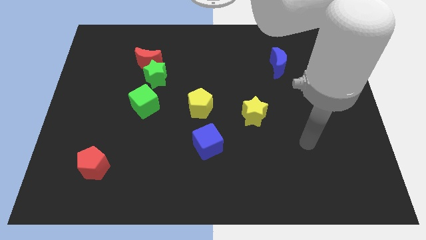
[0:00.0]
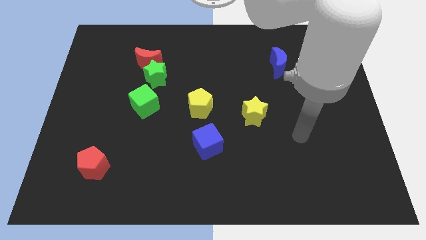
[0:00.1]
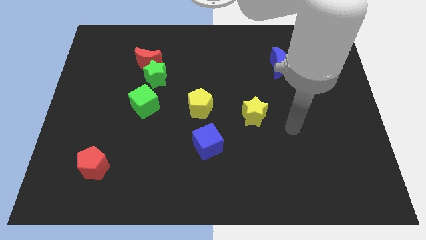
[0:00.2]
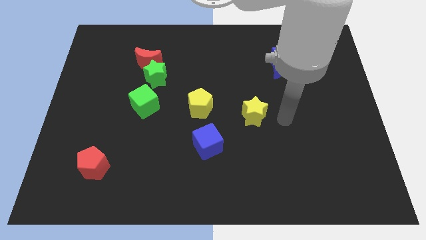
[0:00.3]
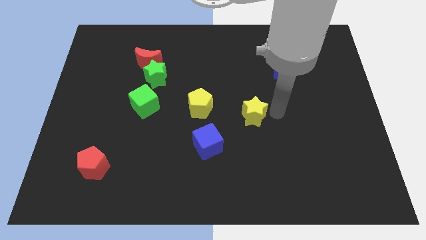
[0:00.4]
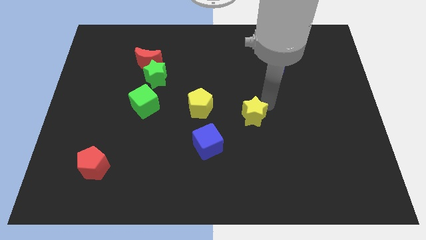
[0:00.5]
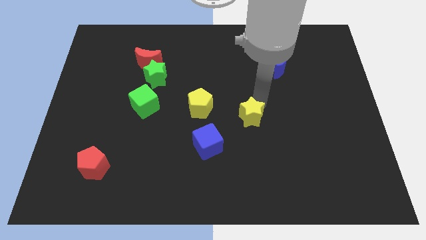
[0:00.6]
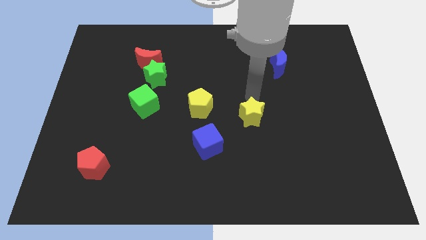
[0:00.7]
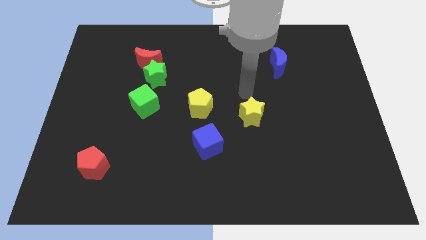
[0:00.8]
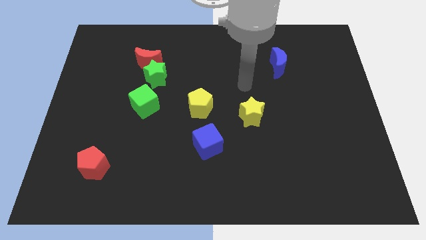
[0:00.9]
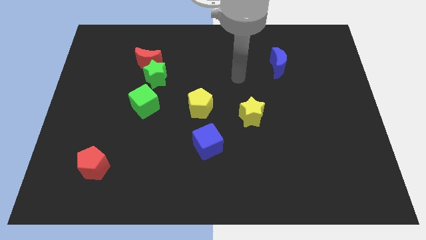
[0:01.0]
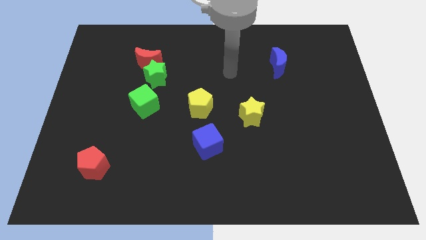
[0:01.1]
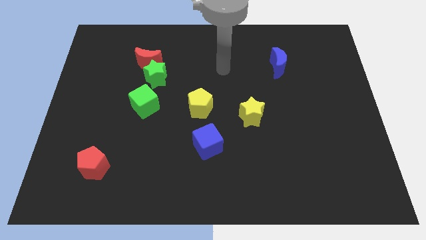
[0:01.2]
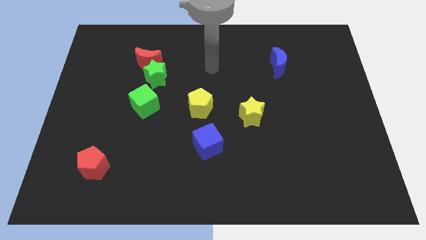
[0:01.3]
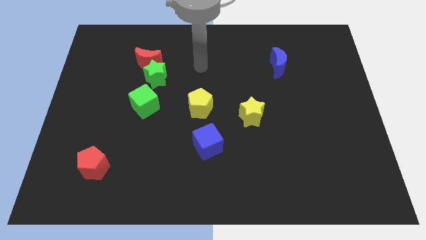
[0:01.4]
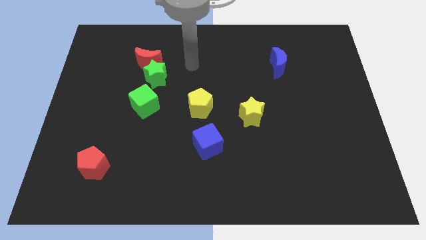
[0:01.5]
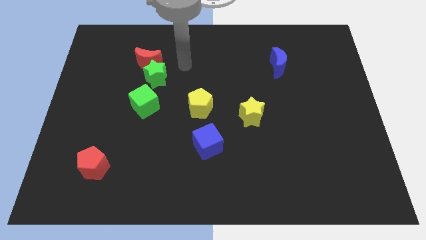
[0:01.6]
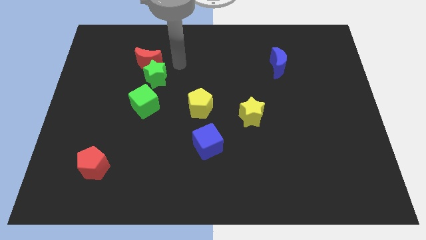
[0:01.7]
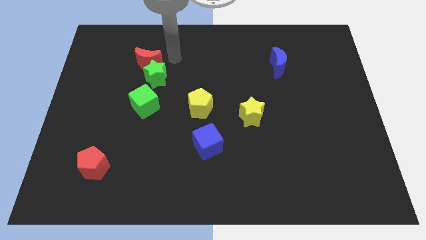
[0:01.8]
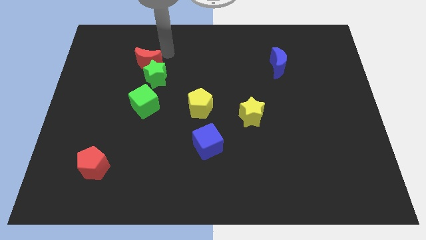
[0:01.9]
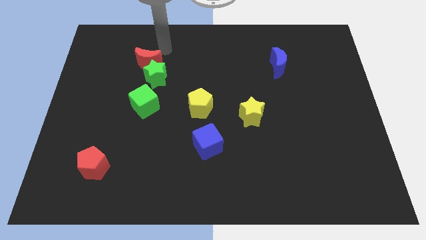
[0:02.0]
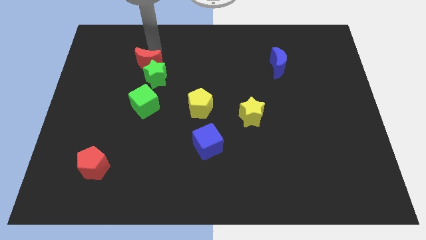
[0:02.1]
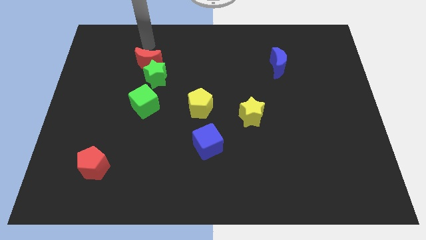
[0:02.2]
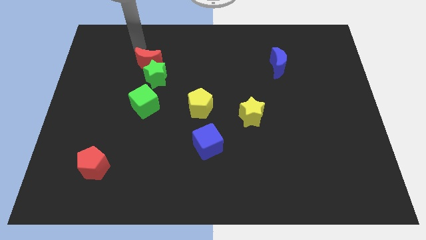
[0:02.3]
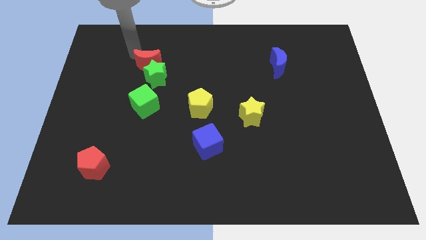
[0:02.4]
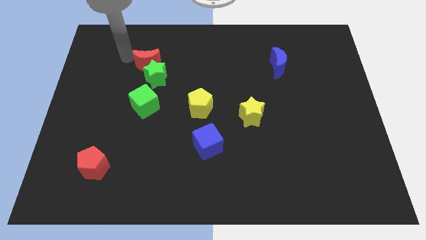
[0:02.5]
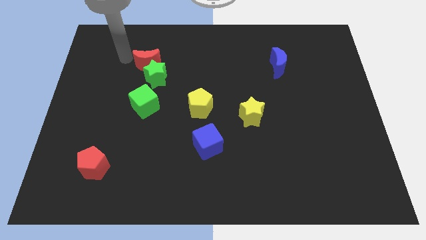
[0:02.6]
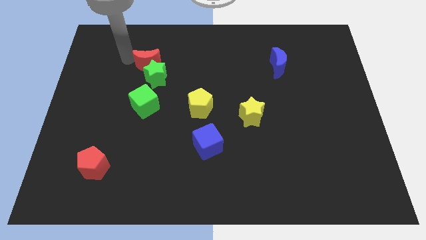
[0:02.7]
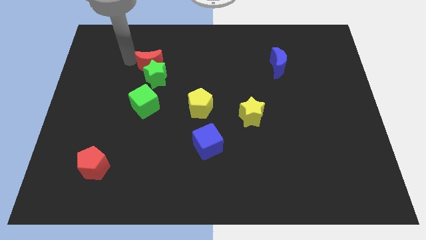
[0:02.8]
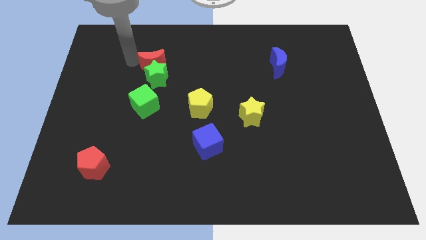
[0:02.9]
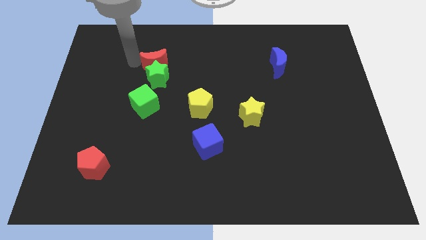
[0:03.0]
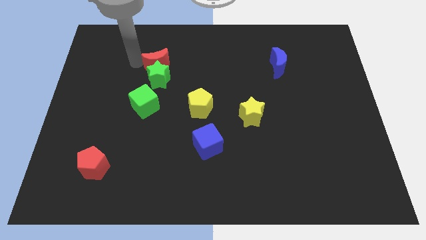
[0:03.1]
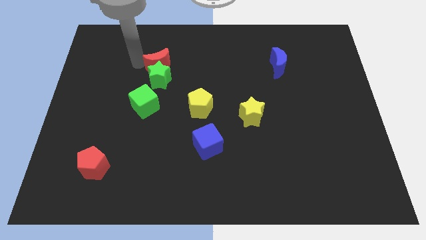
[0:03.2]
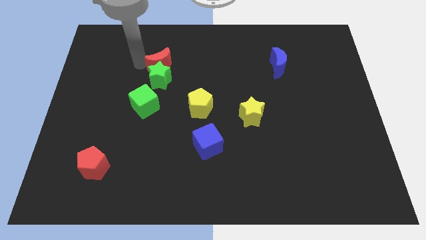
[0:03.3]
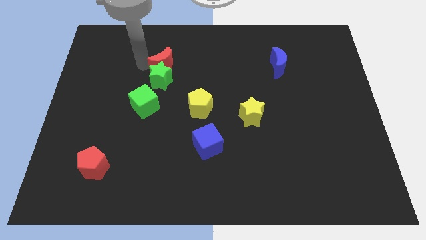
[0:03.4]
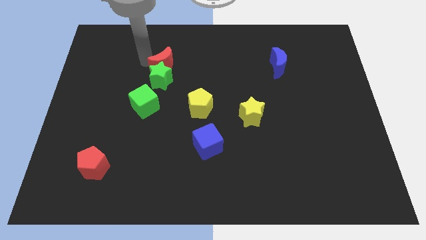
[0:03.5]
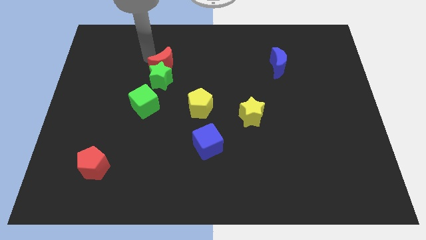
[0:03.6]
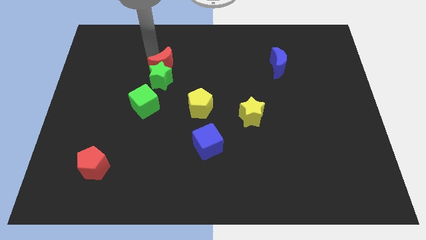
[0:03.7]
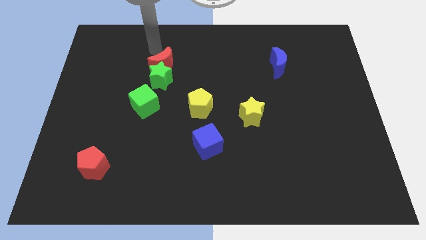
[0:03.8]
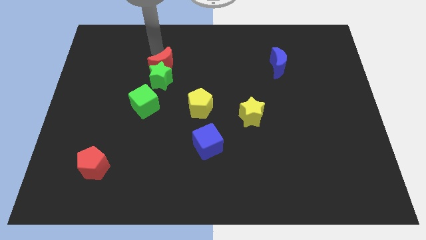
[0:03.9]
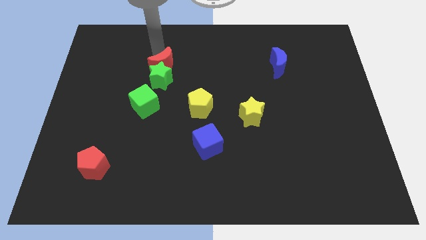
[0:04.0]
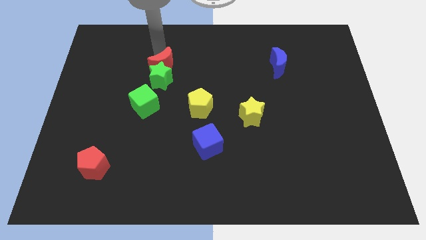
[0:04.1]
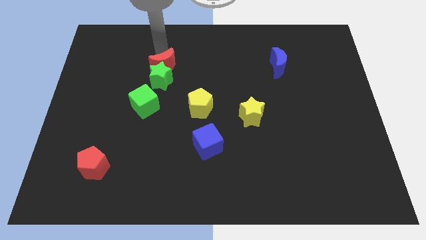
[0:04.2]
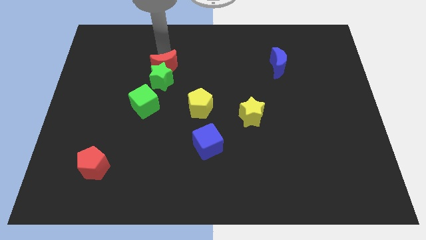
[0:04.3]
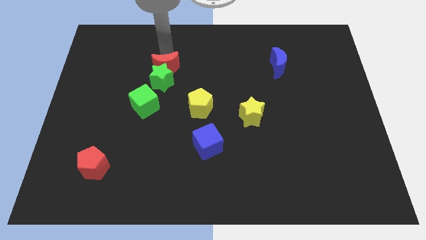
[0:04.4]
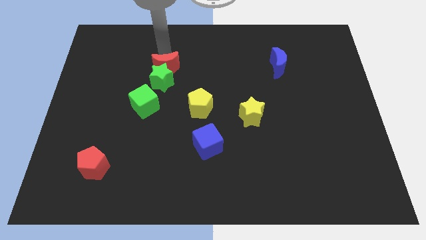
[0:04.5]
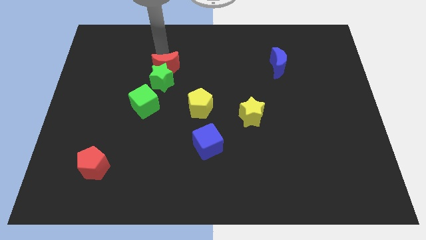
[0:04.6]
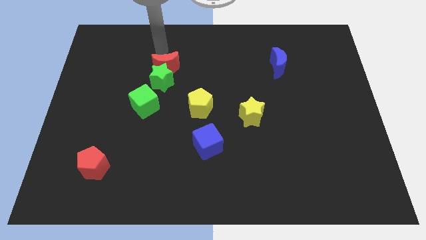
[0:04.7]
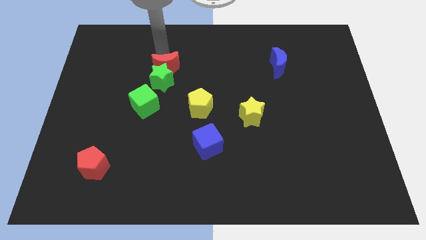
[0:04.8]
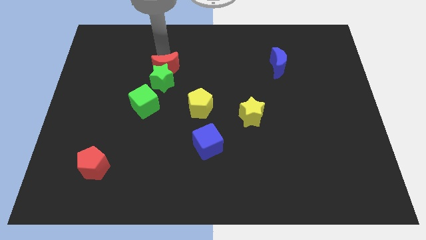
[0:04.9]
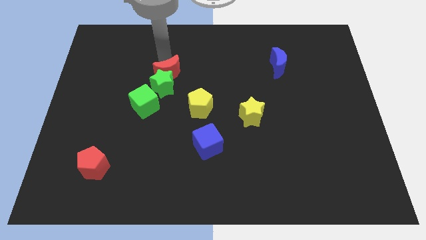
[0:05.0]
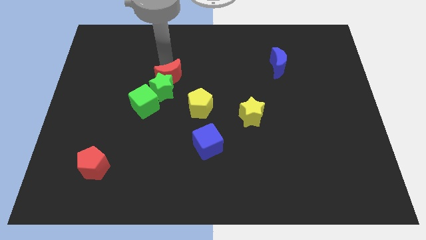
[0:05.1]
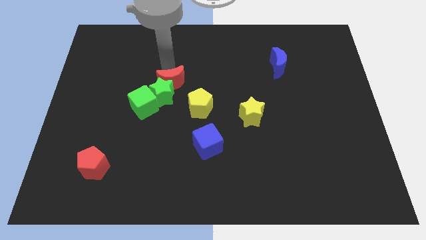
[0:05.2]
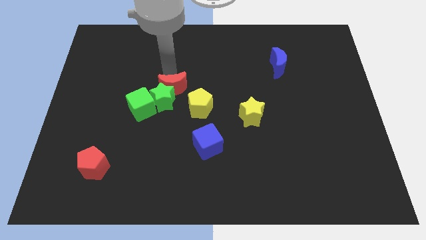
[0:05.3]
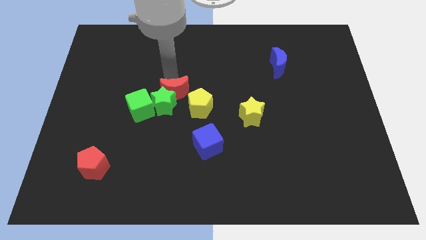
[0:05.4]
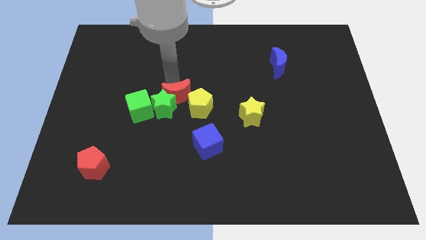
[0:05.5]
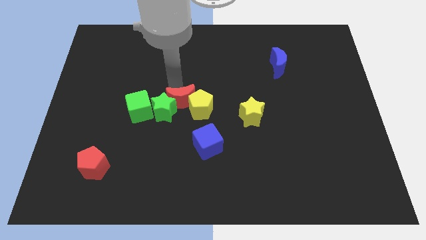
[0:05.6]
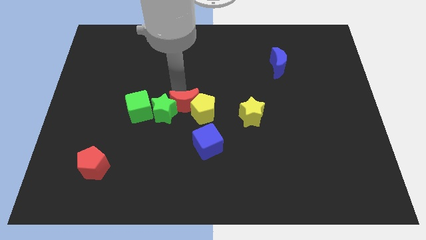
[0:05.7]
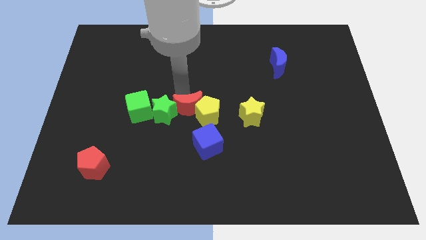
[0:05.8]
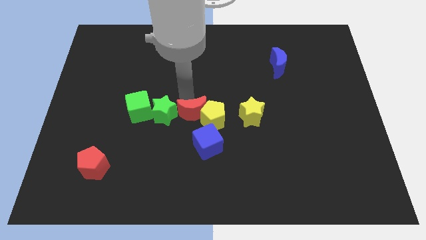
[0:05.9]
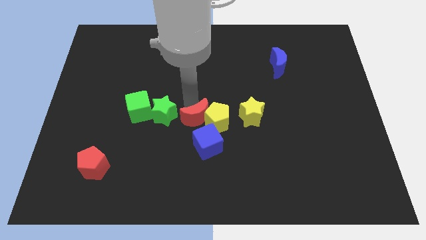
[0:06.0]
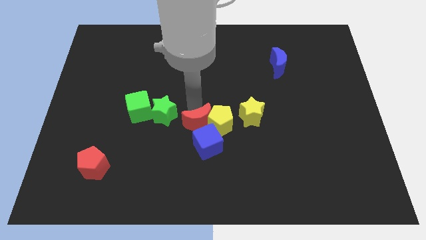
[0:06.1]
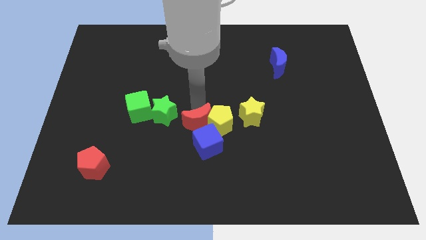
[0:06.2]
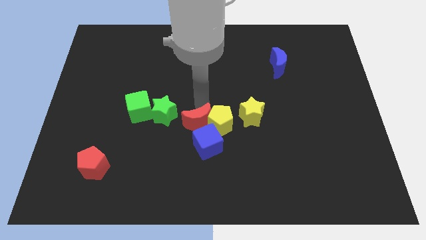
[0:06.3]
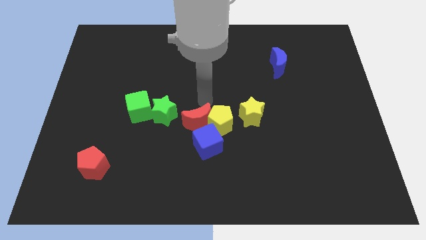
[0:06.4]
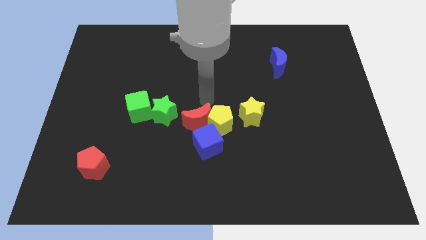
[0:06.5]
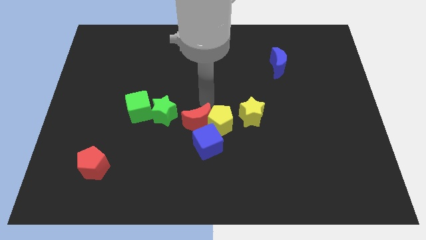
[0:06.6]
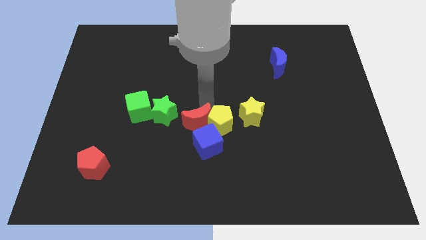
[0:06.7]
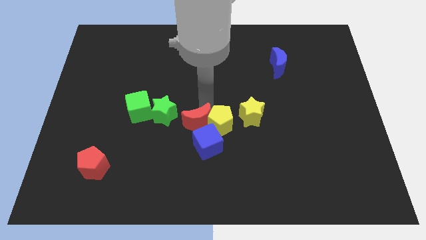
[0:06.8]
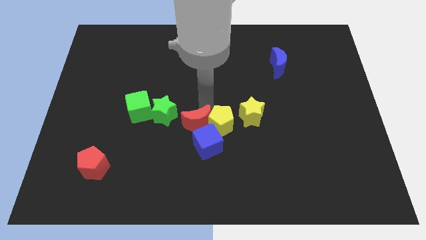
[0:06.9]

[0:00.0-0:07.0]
move the red moon next to the blue cube
